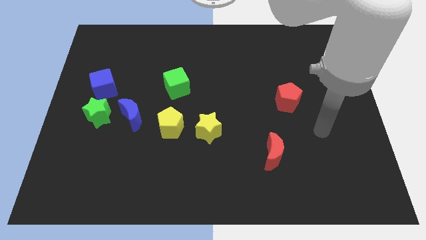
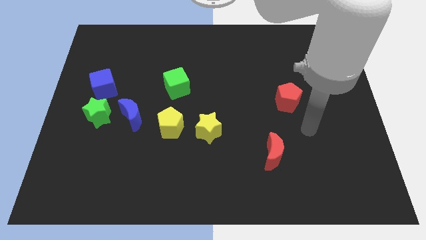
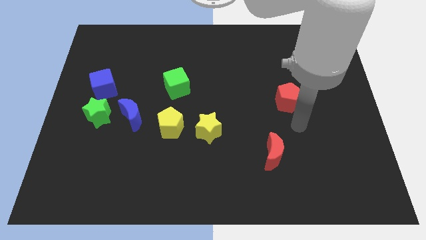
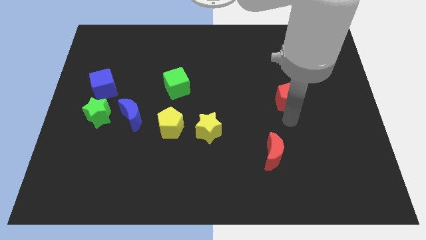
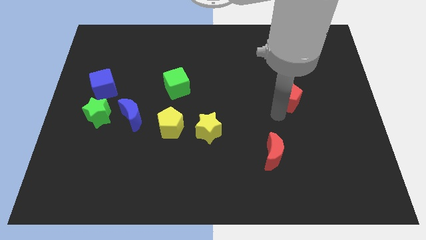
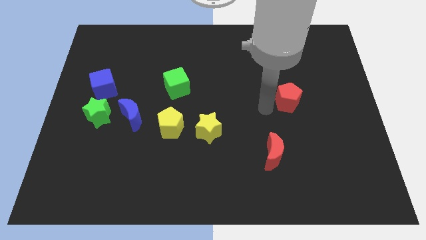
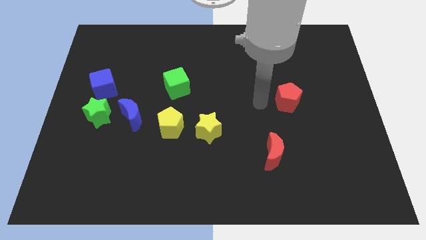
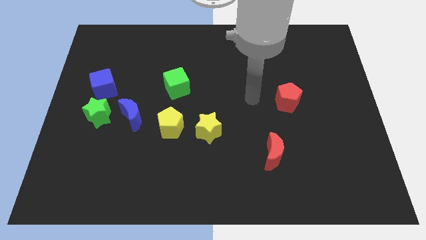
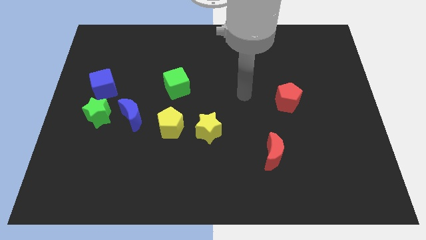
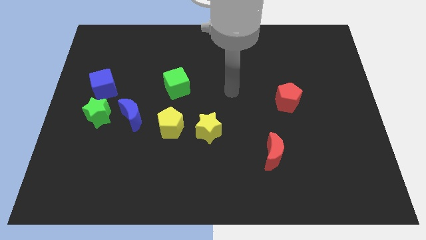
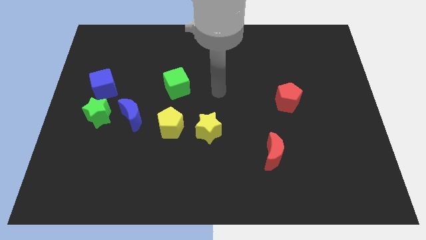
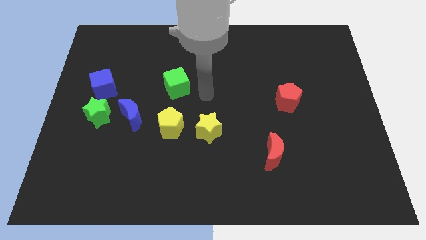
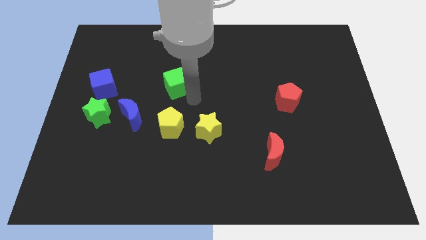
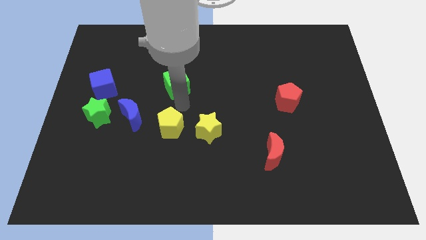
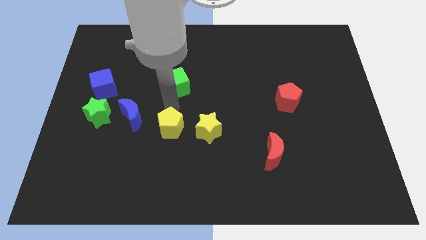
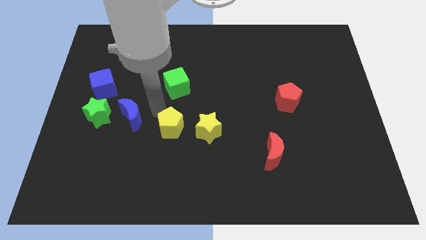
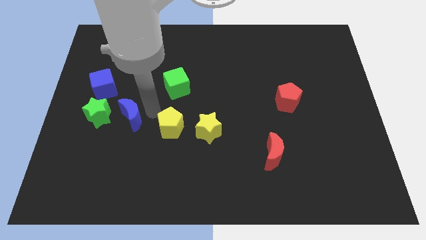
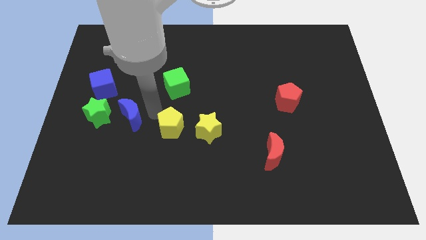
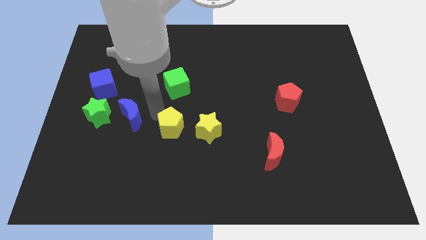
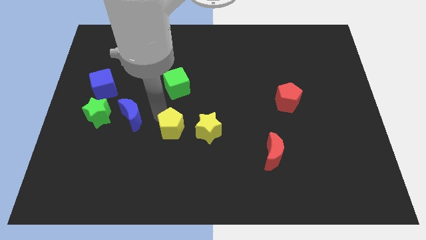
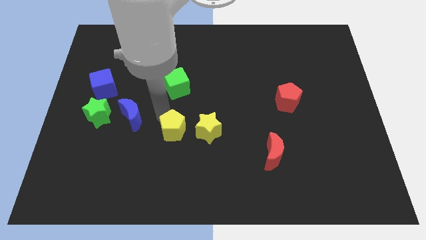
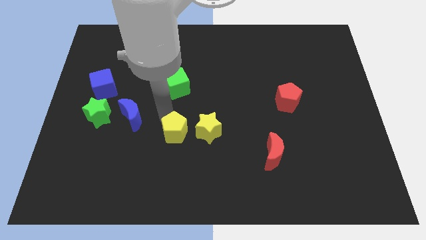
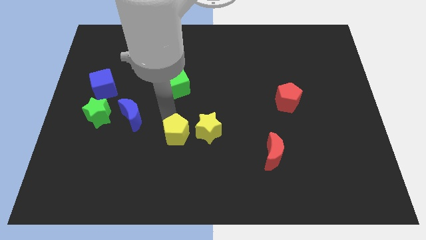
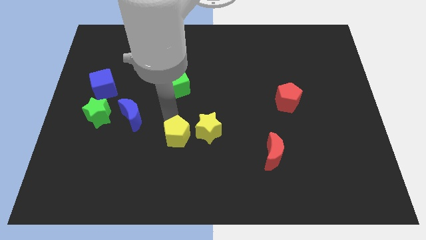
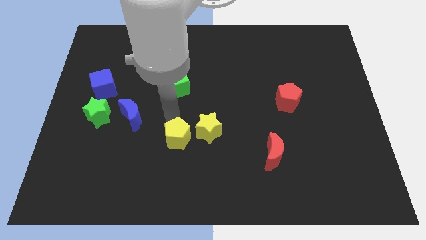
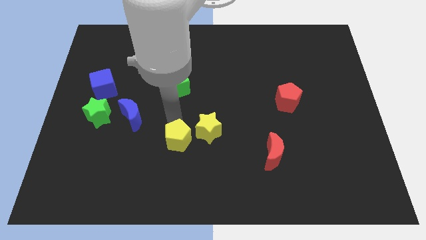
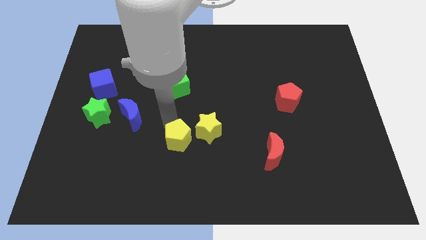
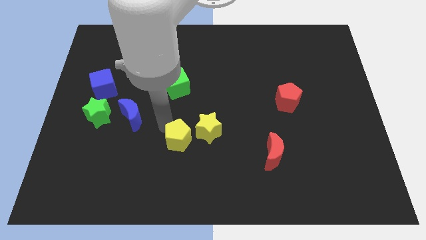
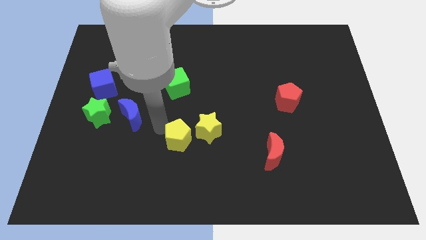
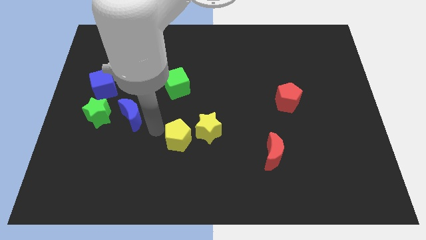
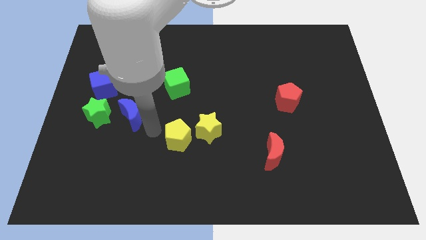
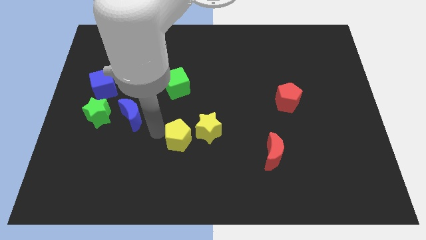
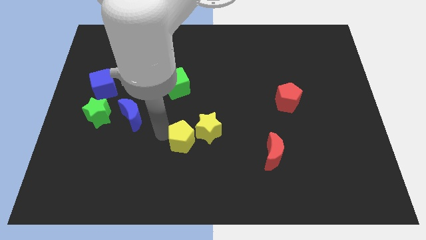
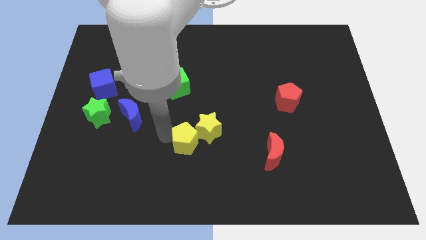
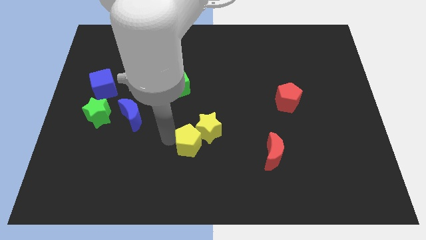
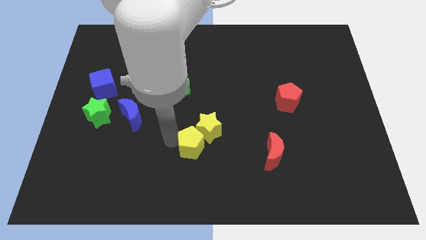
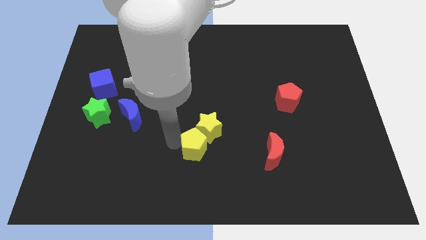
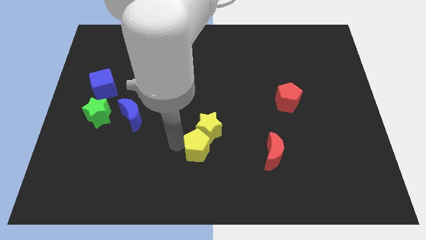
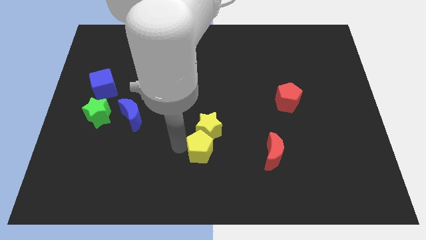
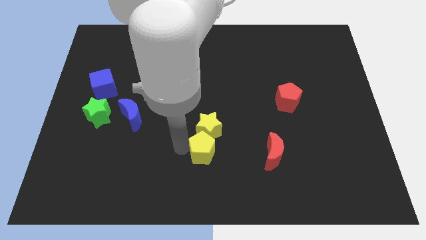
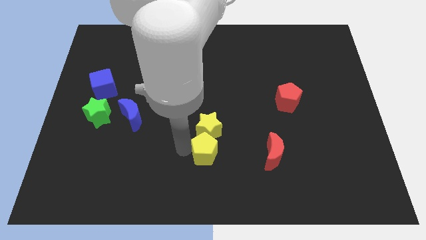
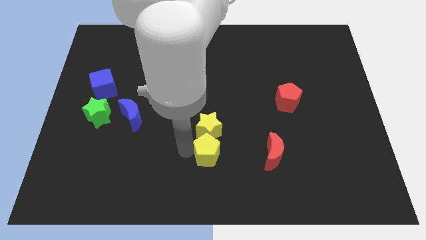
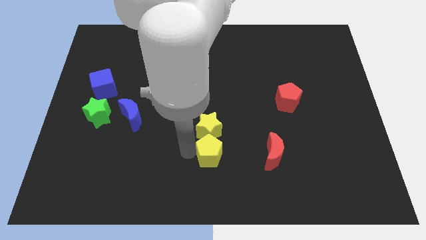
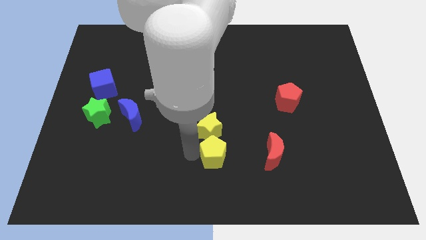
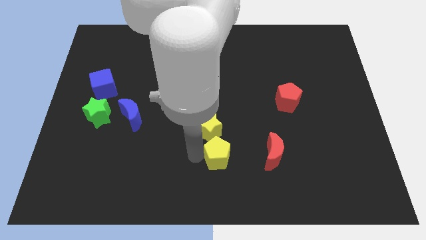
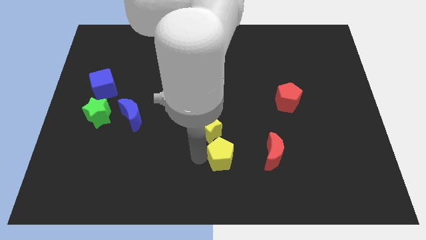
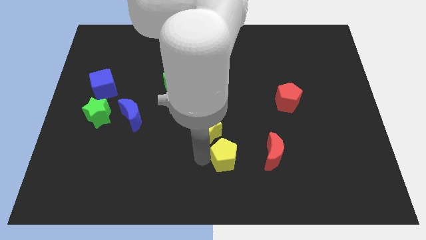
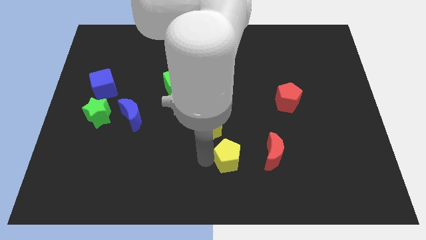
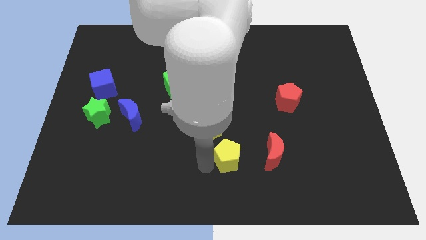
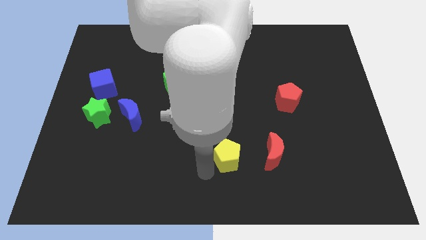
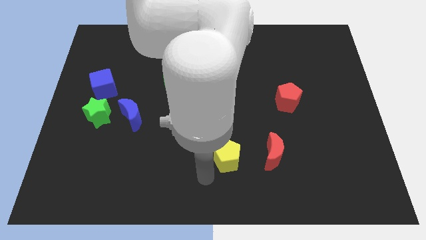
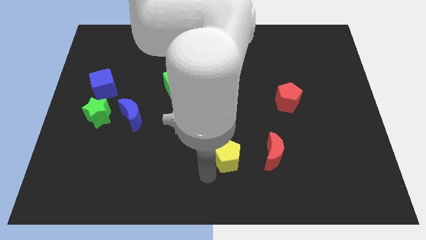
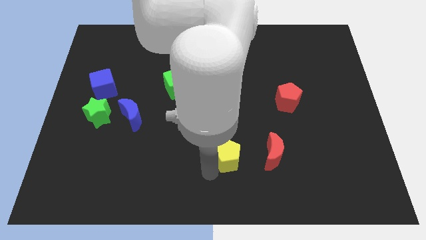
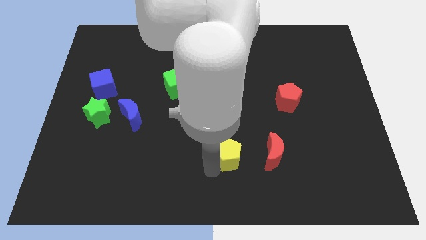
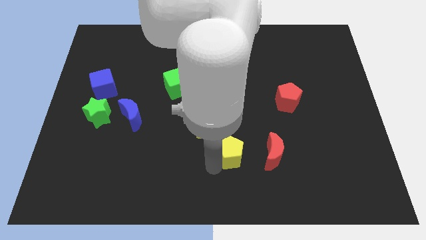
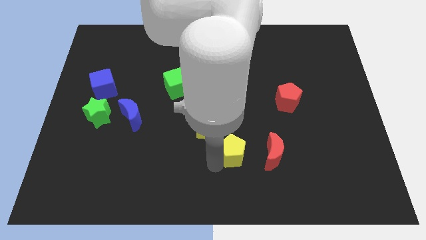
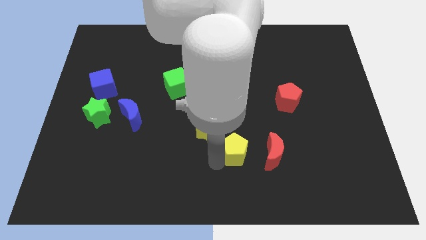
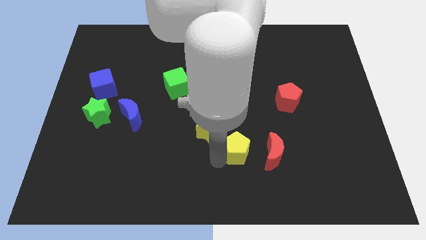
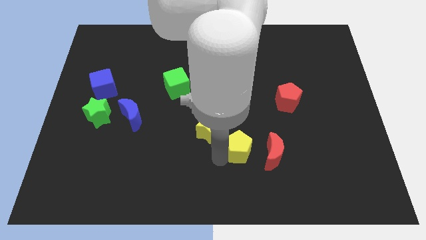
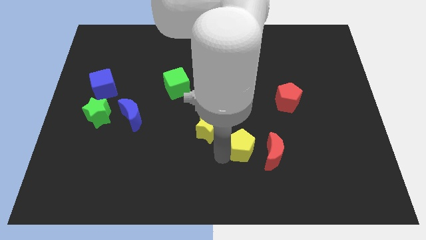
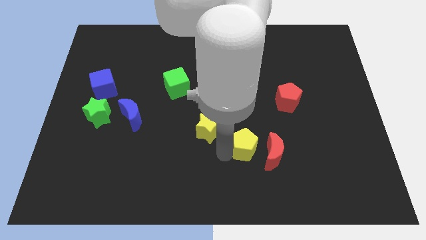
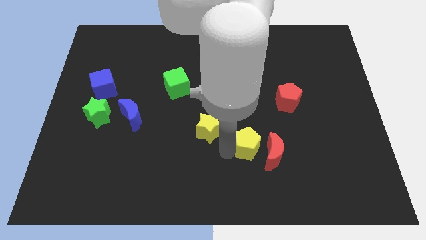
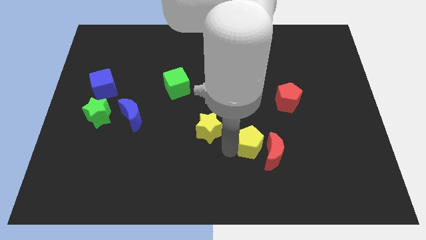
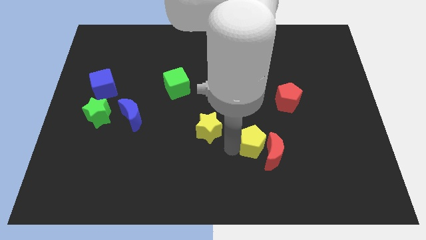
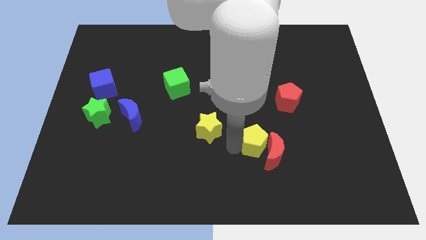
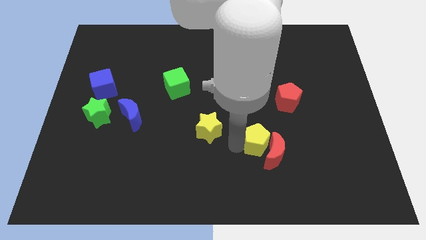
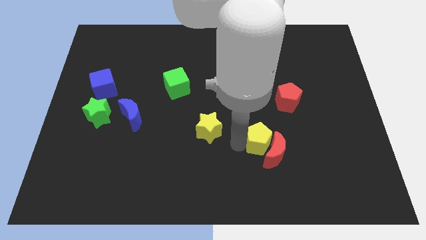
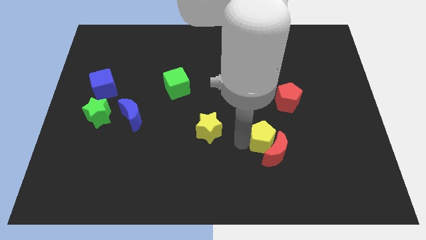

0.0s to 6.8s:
slide the yellow pentagon to the right

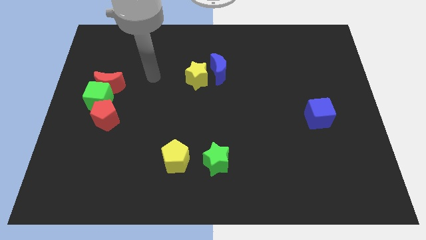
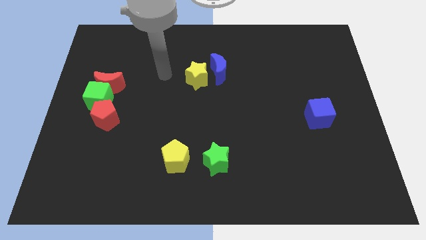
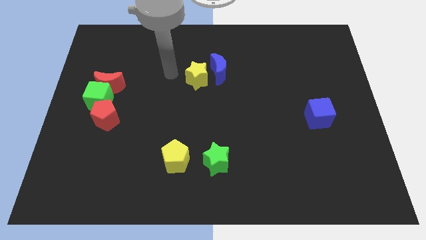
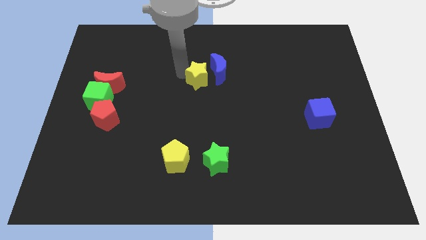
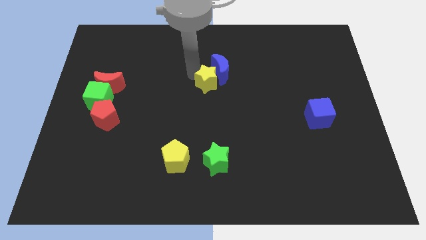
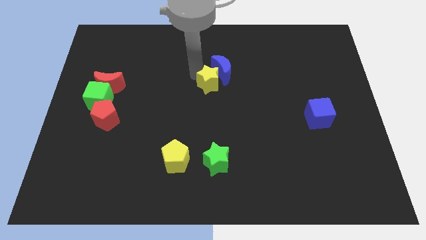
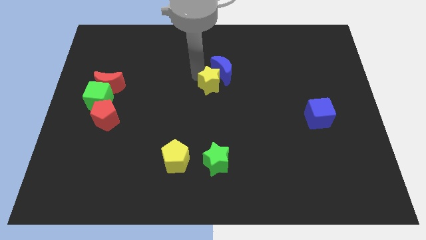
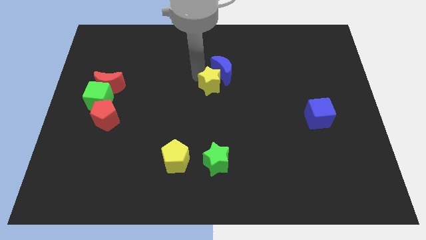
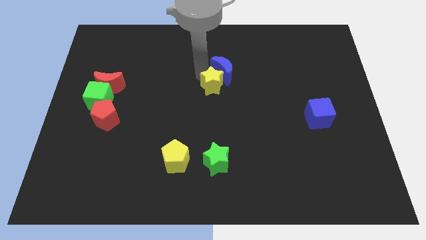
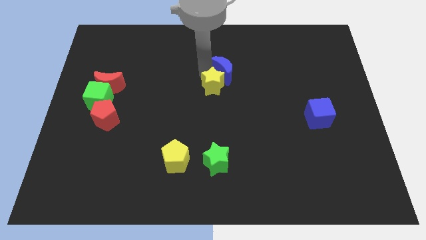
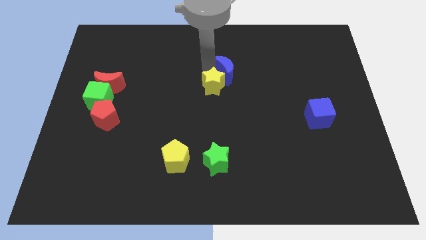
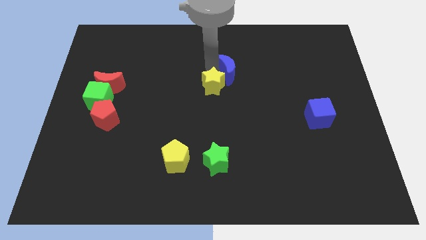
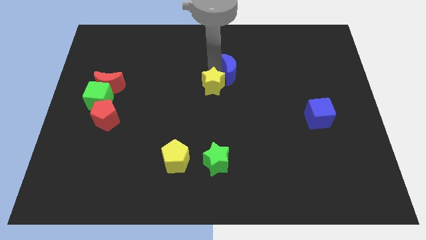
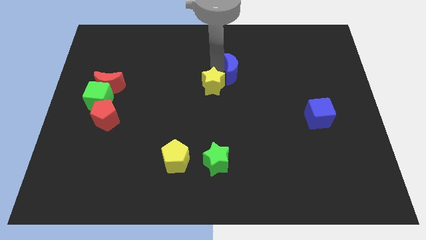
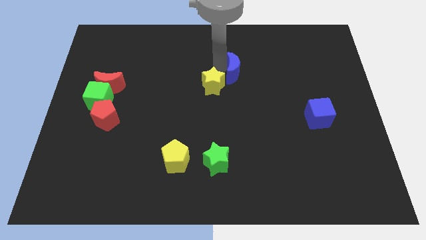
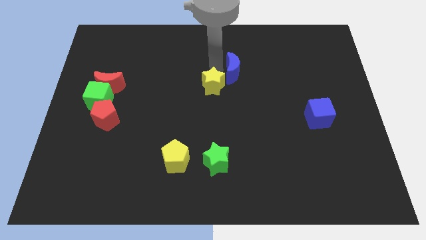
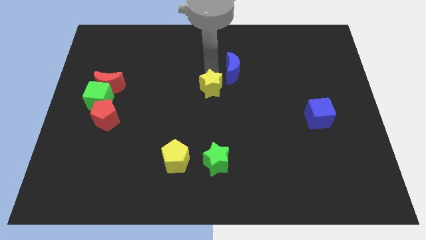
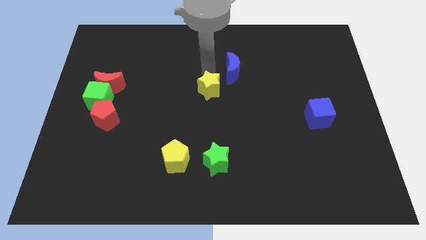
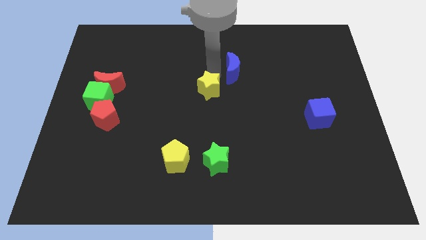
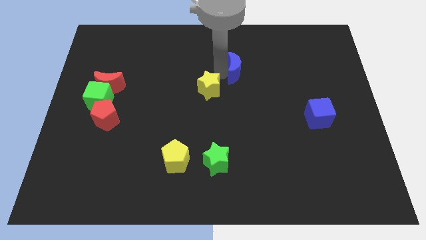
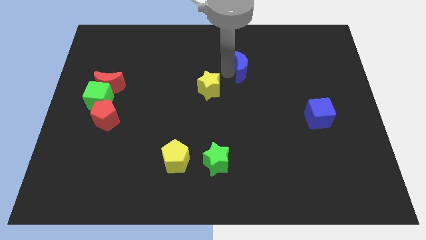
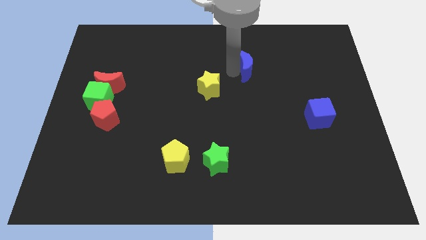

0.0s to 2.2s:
move the blue moon a little to the right
